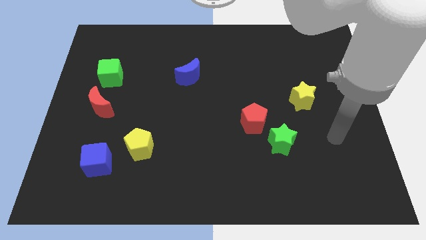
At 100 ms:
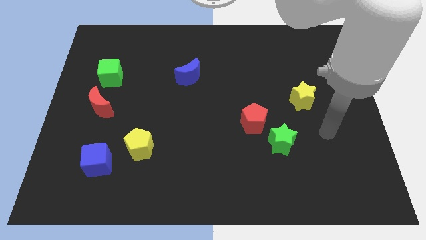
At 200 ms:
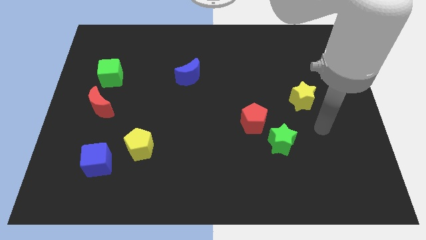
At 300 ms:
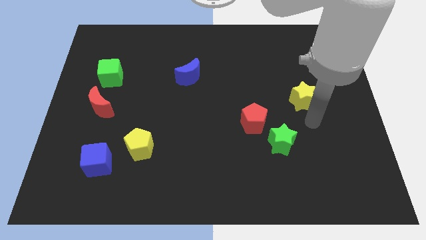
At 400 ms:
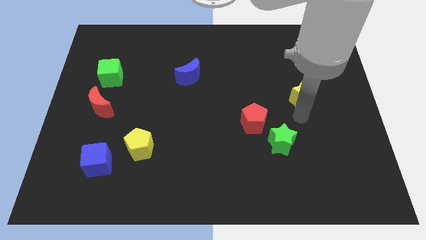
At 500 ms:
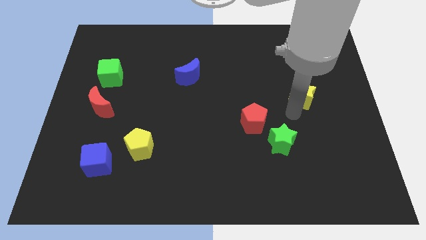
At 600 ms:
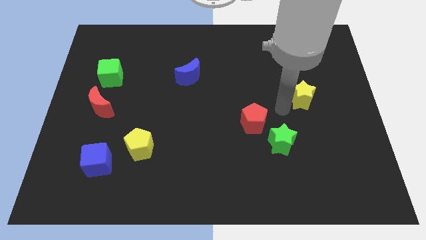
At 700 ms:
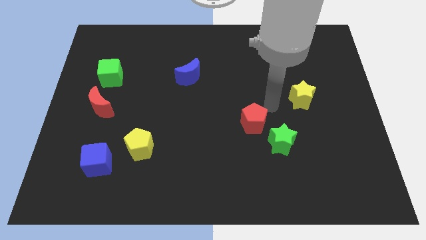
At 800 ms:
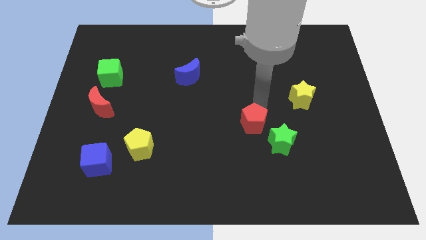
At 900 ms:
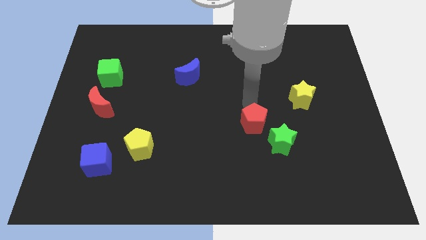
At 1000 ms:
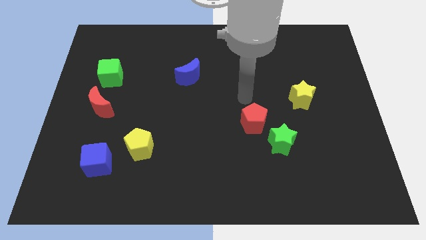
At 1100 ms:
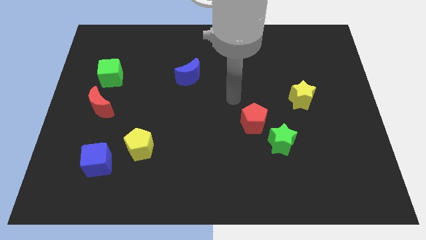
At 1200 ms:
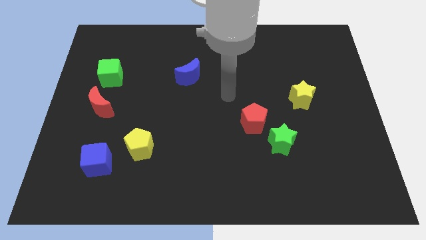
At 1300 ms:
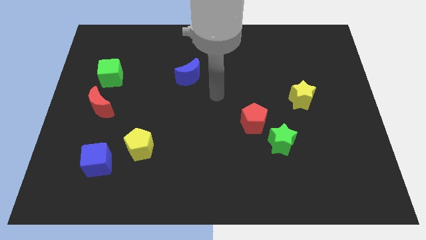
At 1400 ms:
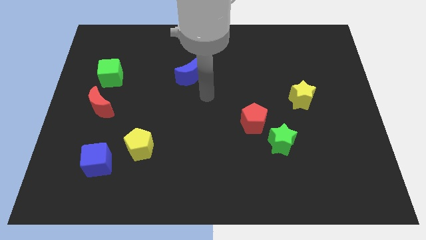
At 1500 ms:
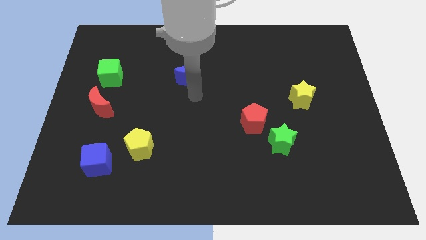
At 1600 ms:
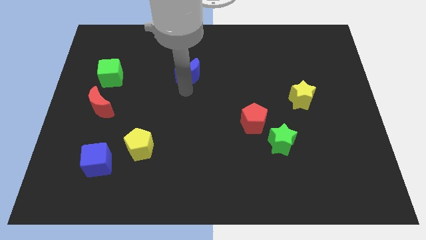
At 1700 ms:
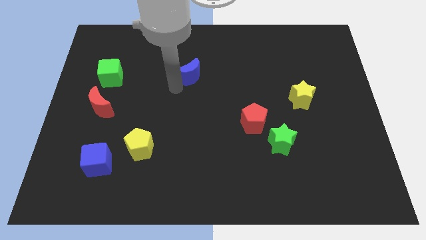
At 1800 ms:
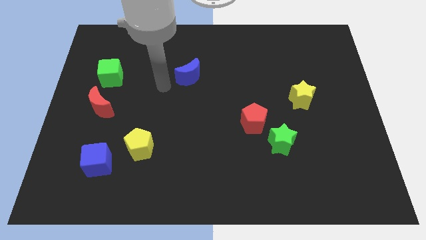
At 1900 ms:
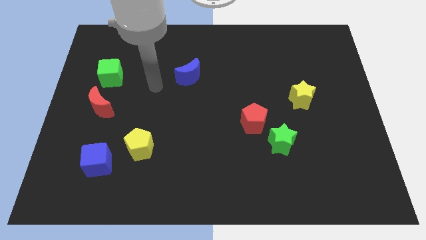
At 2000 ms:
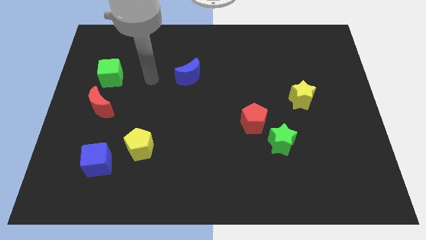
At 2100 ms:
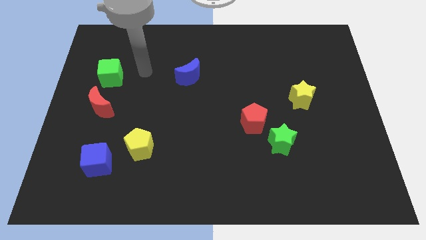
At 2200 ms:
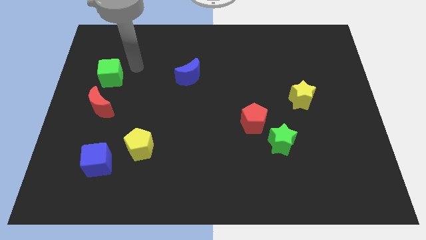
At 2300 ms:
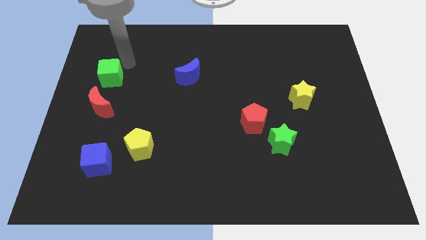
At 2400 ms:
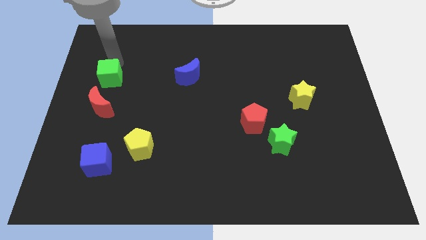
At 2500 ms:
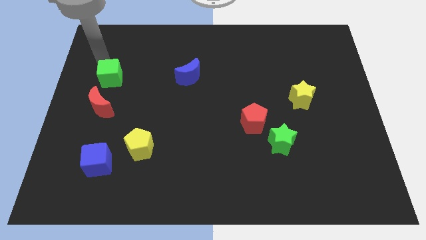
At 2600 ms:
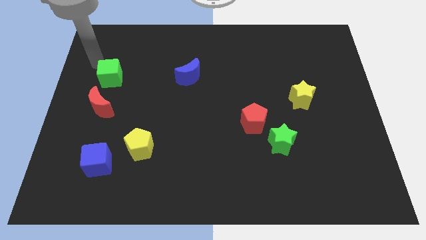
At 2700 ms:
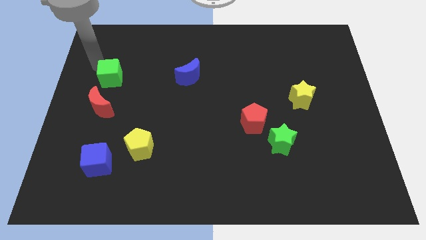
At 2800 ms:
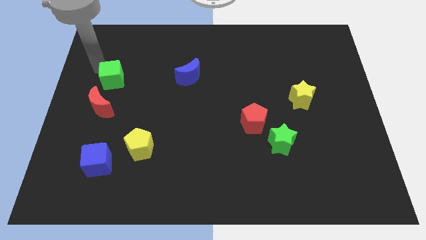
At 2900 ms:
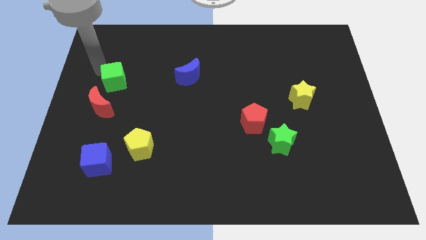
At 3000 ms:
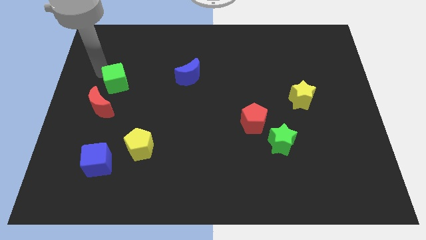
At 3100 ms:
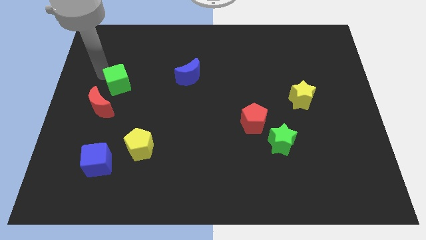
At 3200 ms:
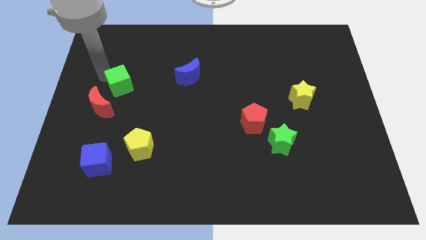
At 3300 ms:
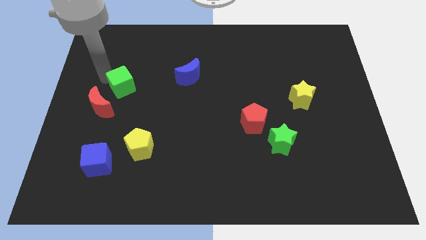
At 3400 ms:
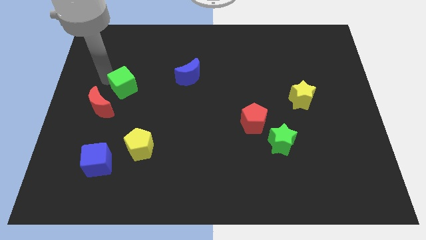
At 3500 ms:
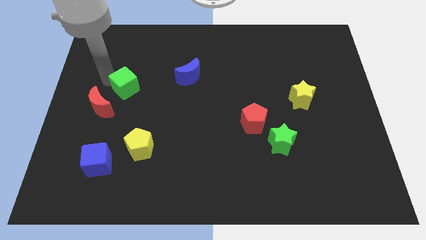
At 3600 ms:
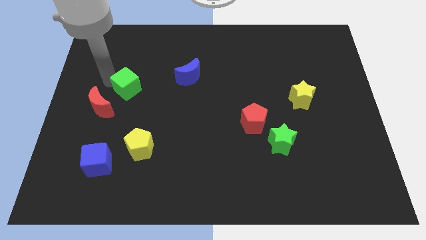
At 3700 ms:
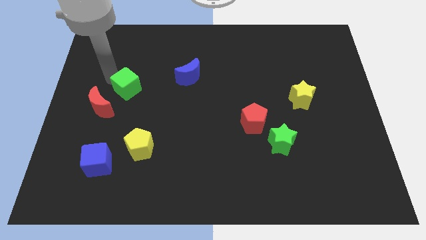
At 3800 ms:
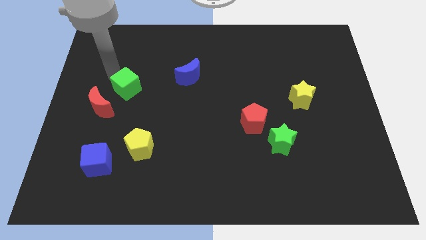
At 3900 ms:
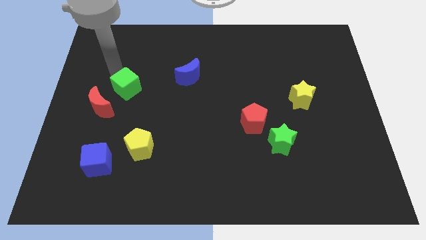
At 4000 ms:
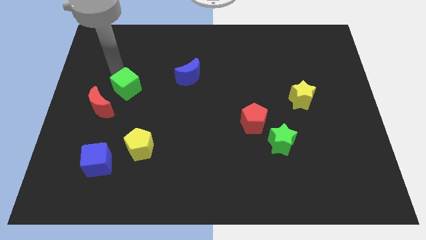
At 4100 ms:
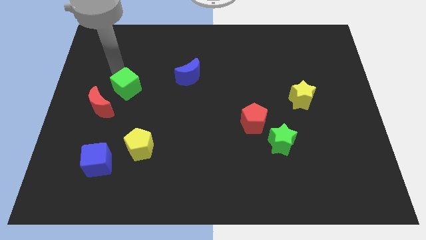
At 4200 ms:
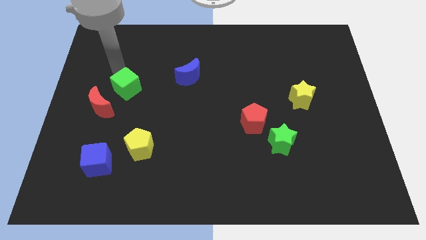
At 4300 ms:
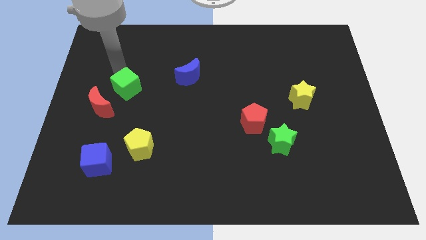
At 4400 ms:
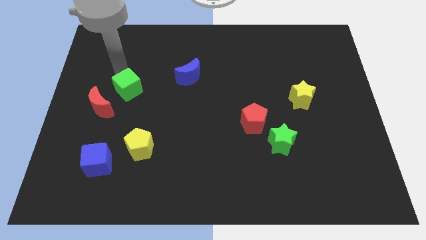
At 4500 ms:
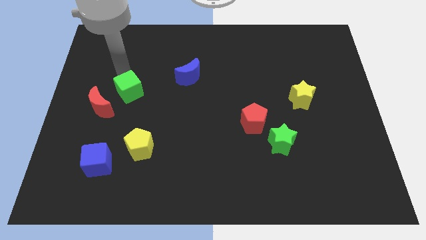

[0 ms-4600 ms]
slide the green cube down and to the right diagonally a bit

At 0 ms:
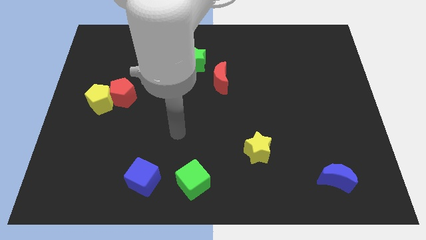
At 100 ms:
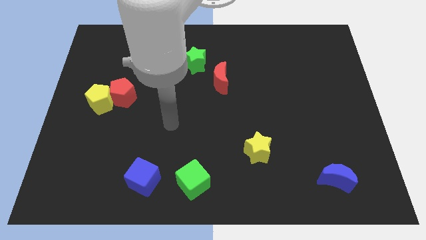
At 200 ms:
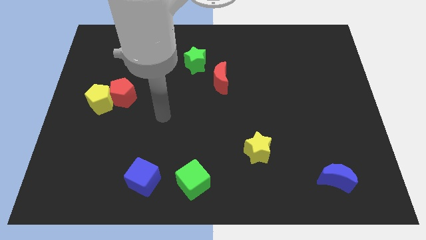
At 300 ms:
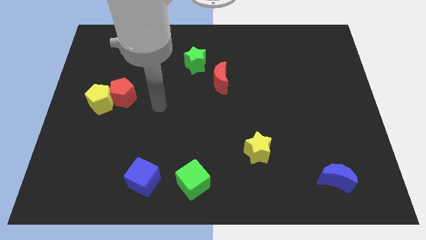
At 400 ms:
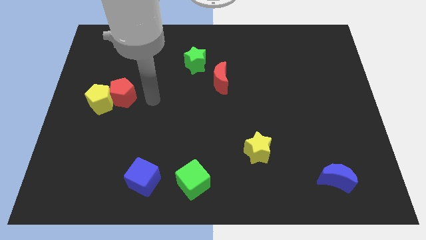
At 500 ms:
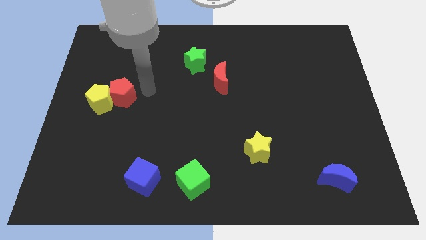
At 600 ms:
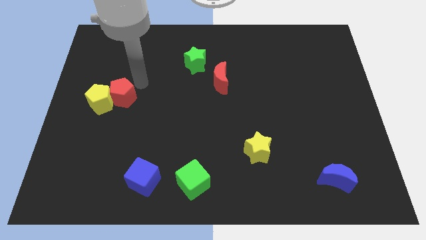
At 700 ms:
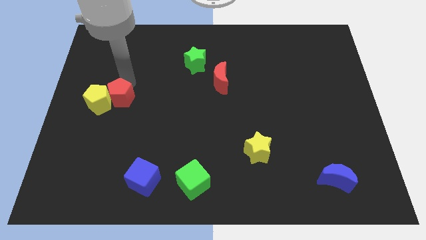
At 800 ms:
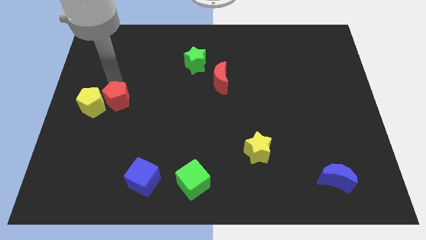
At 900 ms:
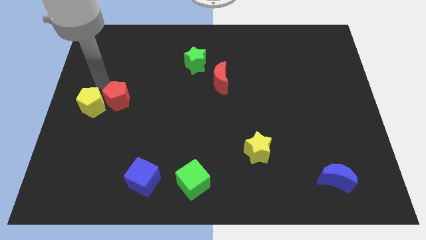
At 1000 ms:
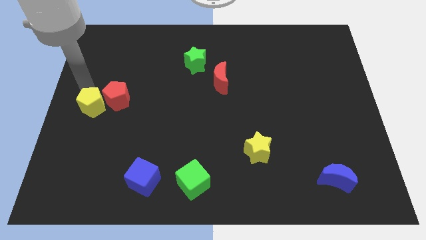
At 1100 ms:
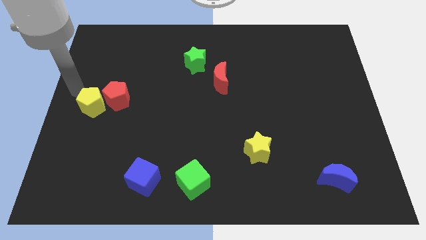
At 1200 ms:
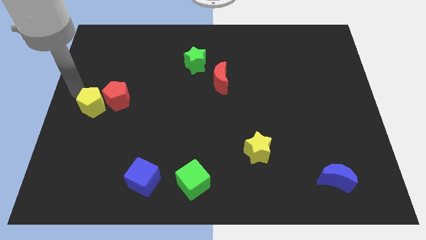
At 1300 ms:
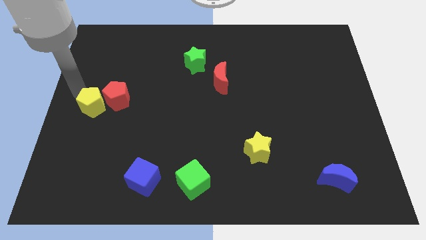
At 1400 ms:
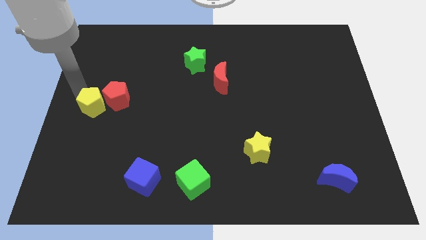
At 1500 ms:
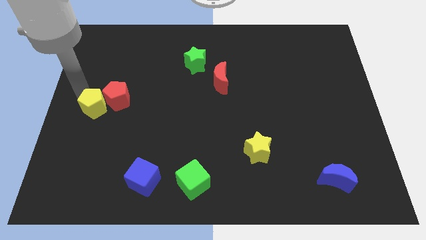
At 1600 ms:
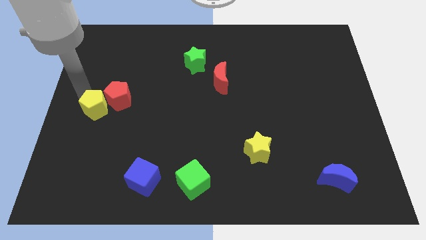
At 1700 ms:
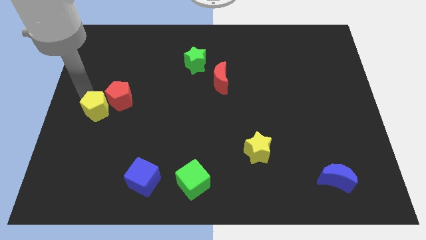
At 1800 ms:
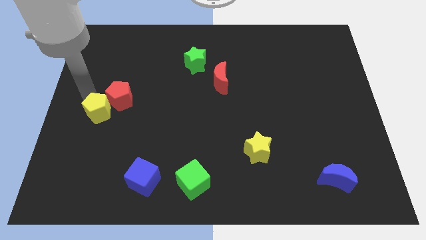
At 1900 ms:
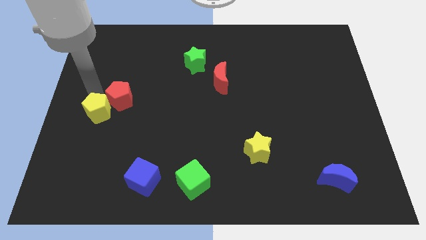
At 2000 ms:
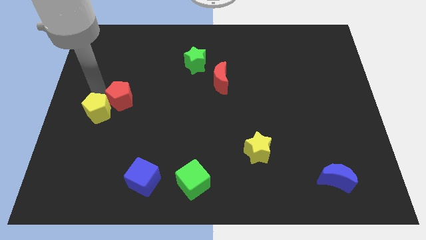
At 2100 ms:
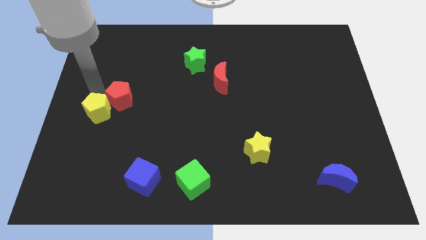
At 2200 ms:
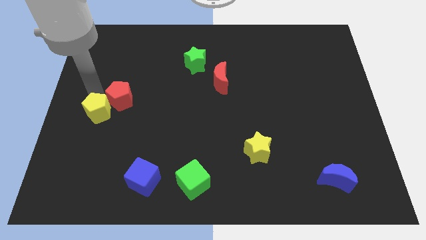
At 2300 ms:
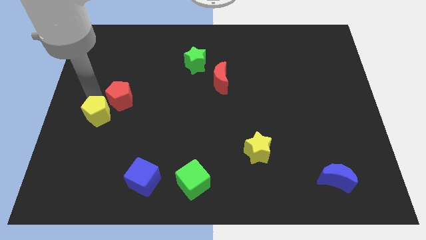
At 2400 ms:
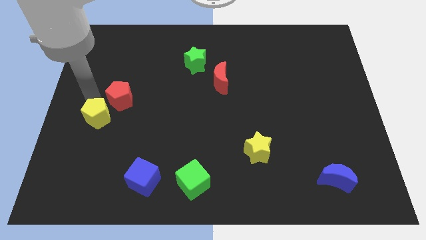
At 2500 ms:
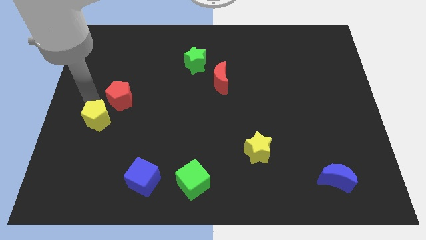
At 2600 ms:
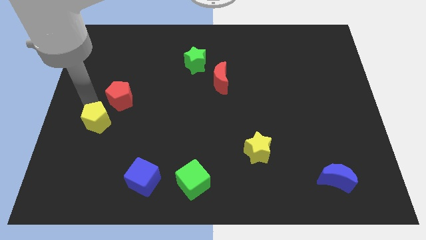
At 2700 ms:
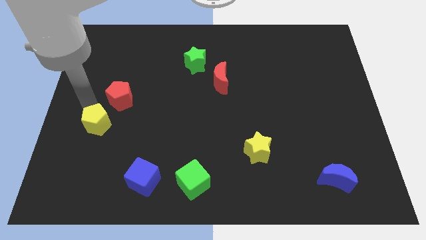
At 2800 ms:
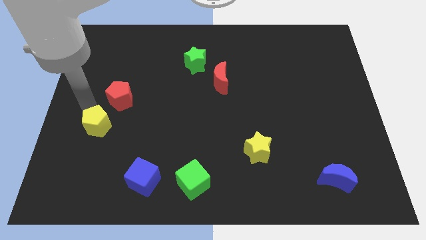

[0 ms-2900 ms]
push the yellow pentagon downwards slightly

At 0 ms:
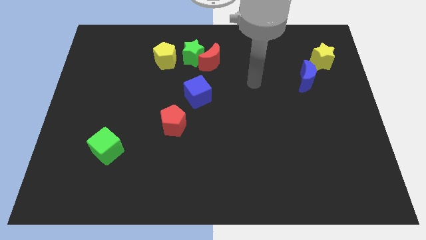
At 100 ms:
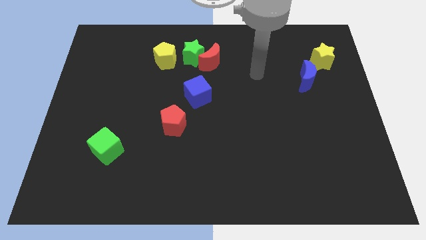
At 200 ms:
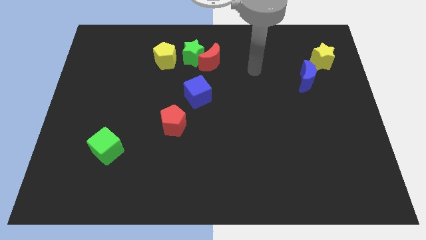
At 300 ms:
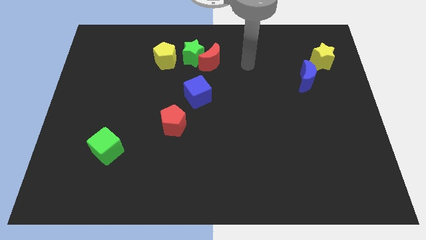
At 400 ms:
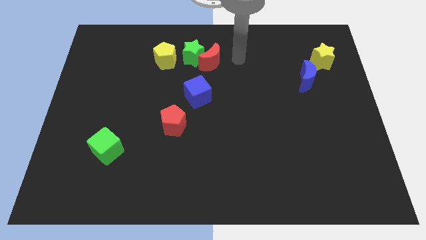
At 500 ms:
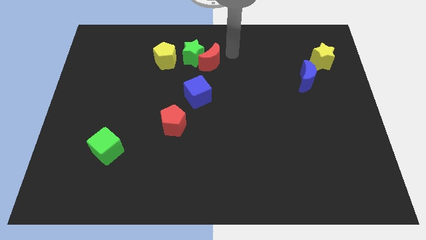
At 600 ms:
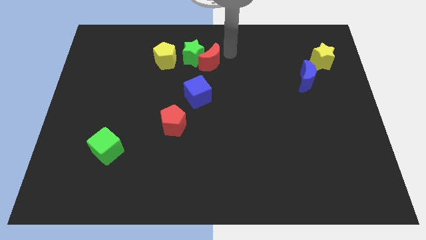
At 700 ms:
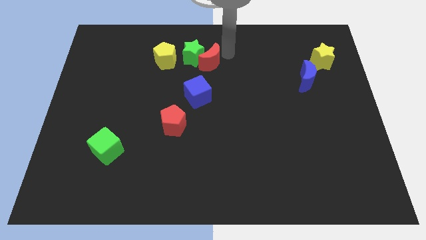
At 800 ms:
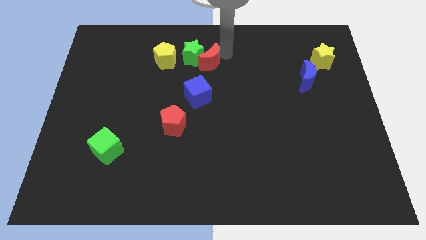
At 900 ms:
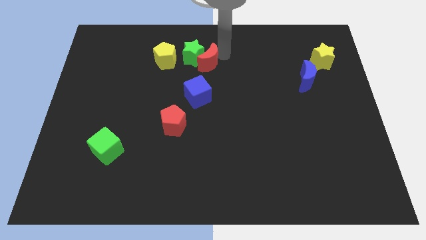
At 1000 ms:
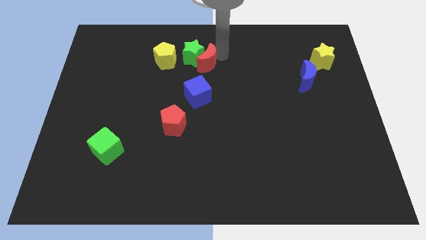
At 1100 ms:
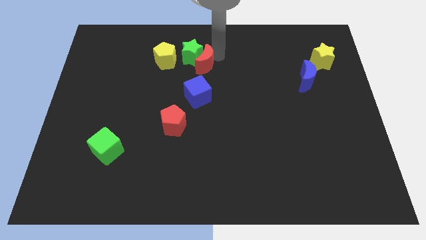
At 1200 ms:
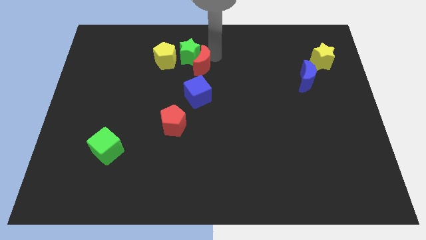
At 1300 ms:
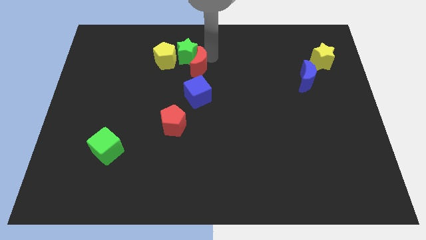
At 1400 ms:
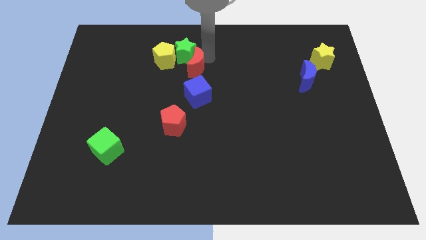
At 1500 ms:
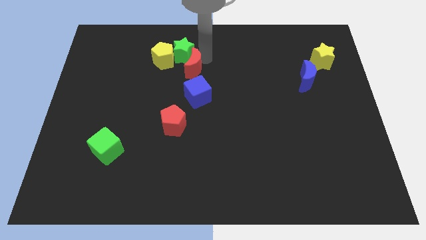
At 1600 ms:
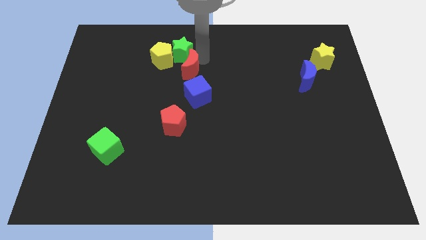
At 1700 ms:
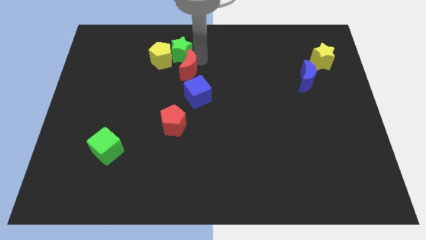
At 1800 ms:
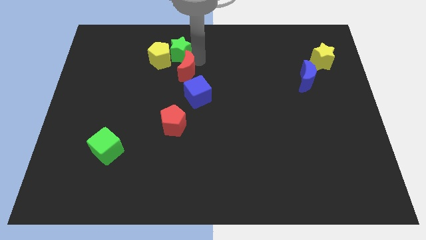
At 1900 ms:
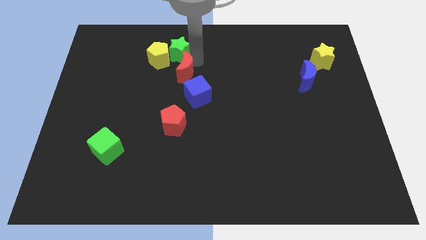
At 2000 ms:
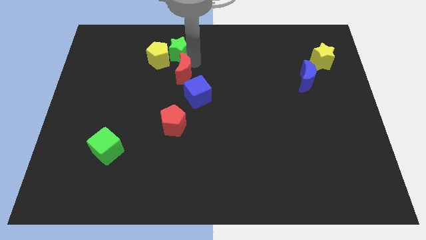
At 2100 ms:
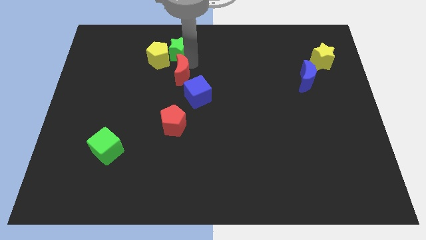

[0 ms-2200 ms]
slightly push the red moon left
